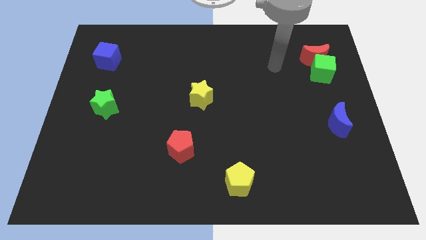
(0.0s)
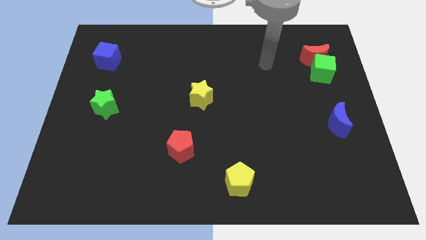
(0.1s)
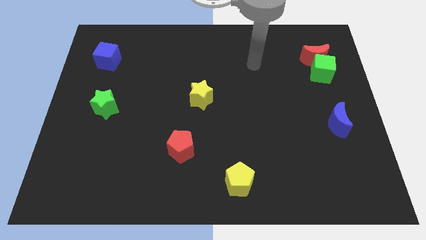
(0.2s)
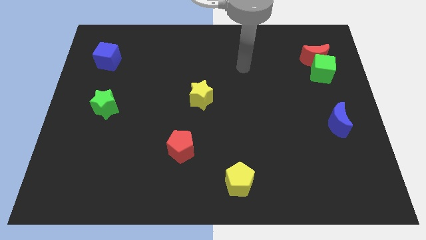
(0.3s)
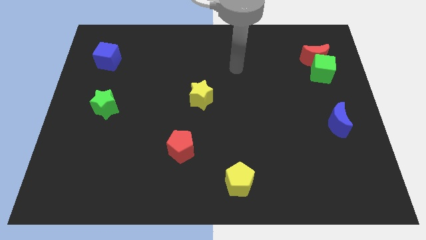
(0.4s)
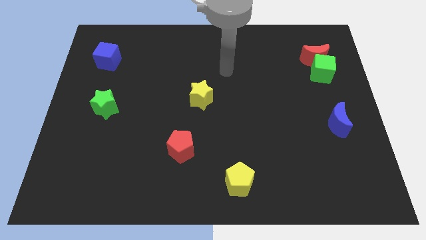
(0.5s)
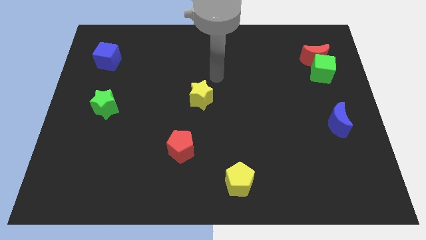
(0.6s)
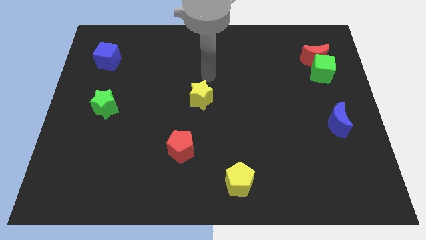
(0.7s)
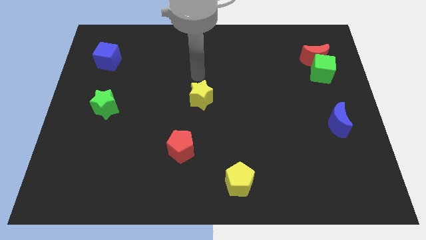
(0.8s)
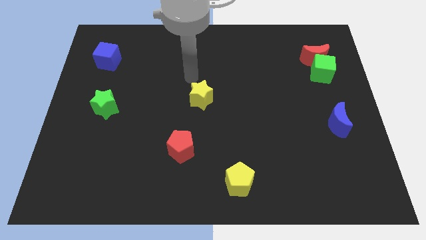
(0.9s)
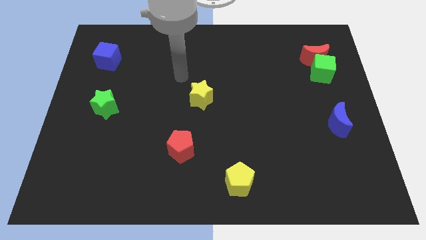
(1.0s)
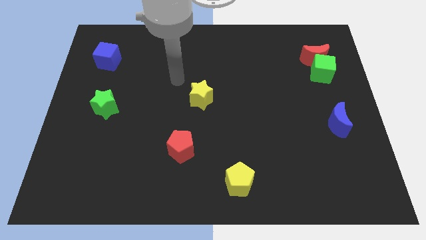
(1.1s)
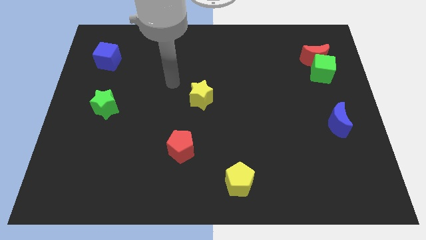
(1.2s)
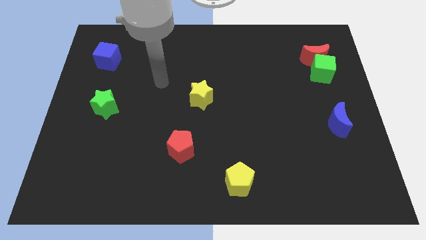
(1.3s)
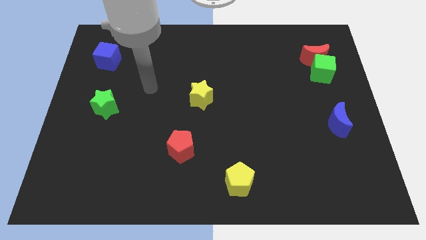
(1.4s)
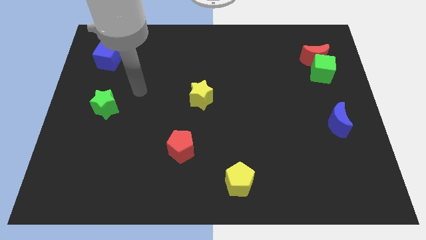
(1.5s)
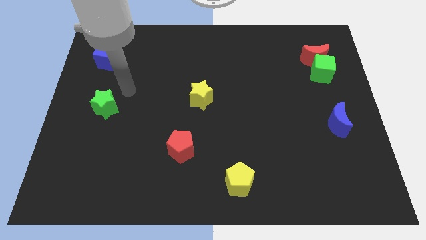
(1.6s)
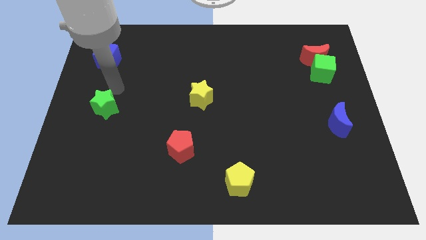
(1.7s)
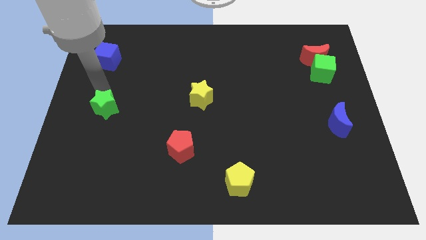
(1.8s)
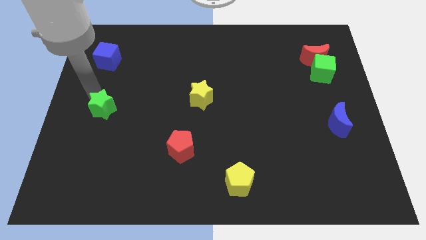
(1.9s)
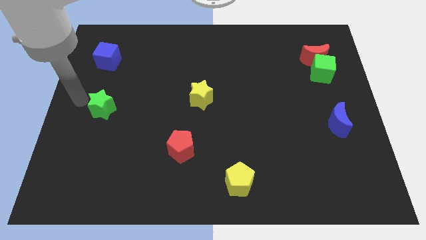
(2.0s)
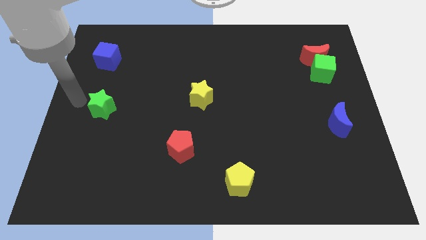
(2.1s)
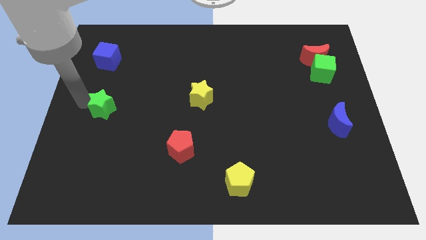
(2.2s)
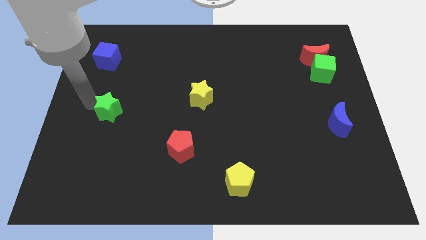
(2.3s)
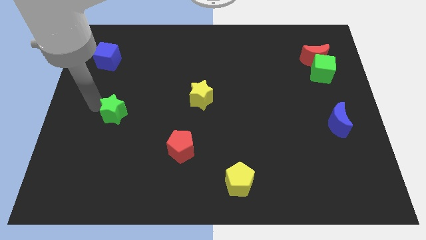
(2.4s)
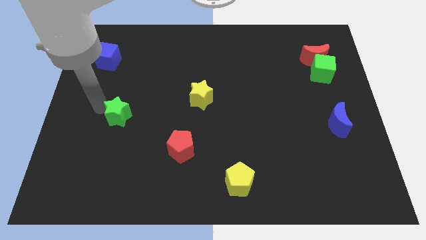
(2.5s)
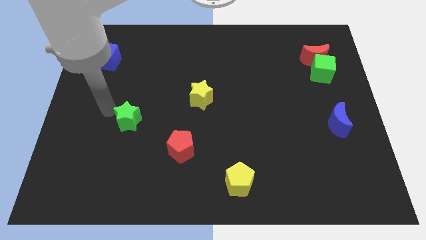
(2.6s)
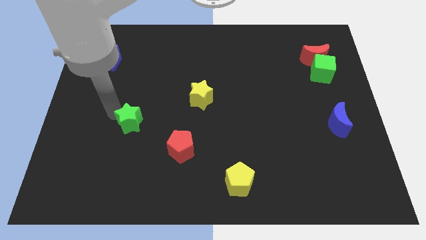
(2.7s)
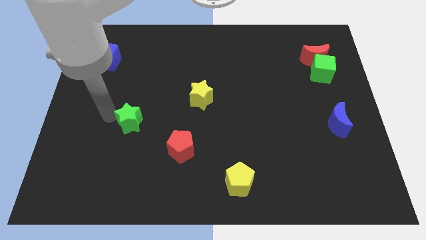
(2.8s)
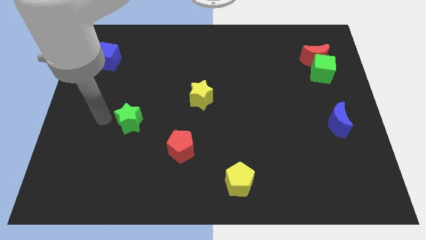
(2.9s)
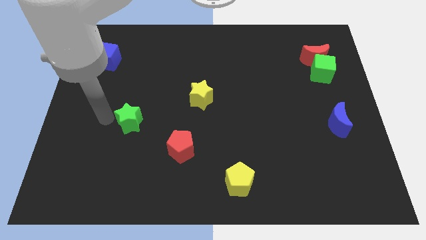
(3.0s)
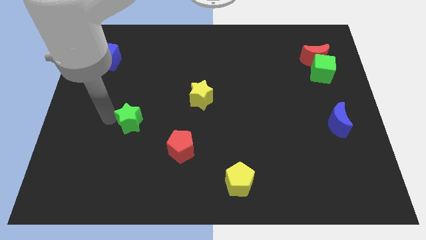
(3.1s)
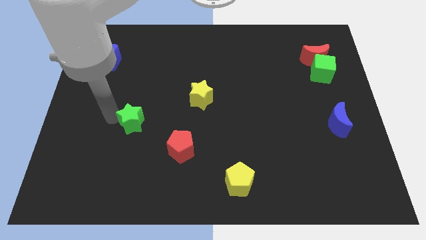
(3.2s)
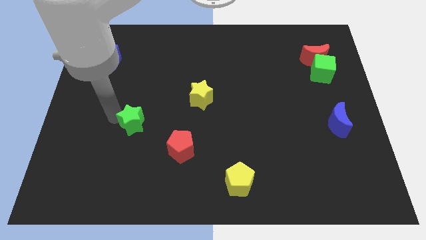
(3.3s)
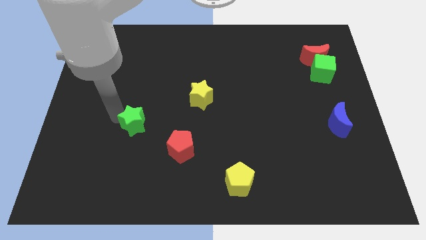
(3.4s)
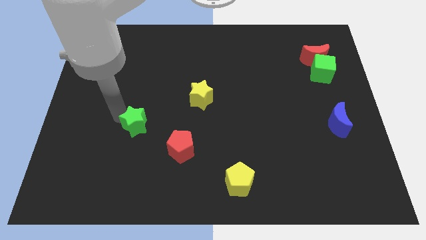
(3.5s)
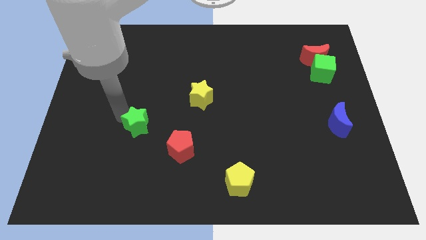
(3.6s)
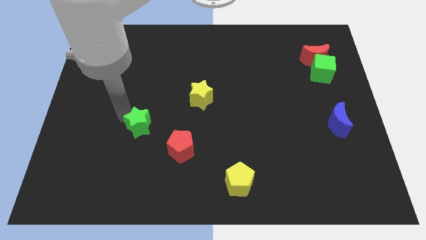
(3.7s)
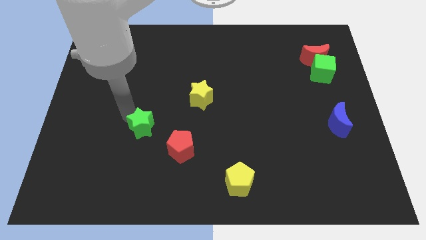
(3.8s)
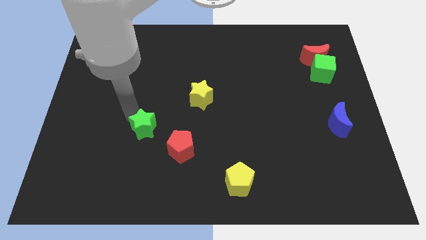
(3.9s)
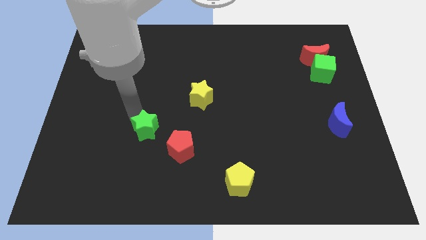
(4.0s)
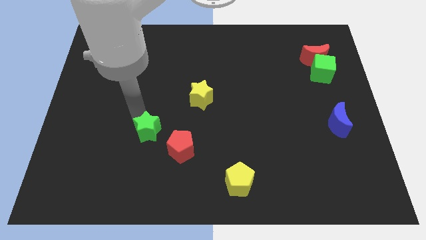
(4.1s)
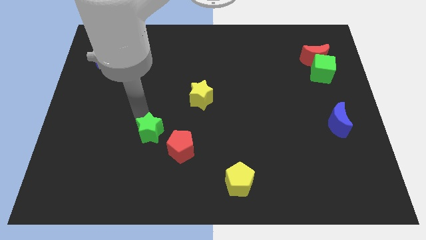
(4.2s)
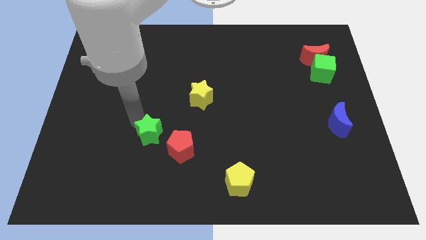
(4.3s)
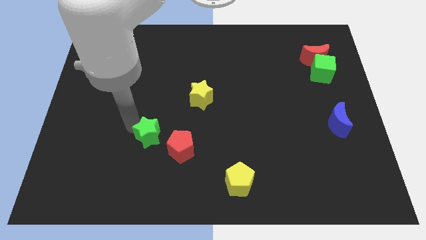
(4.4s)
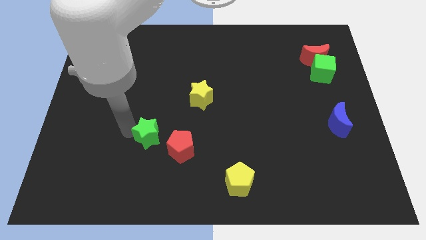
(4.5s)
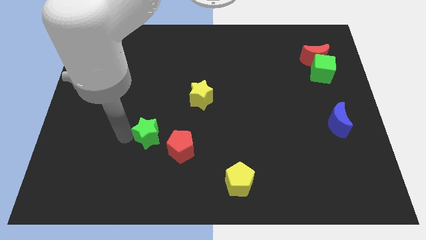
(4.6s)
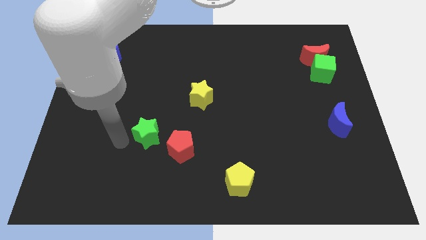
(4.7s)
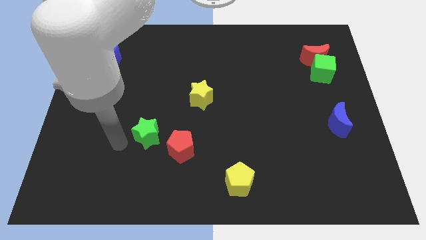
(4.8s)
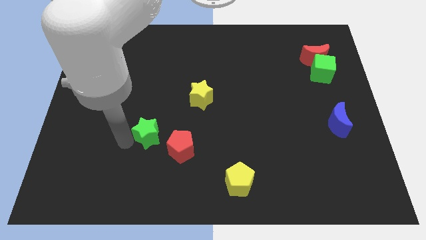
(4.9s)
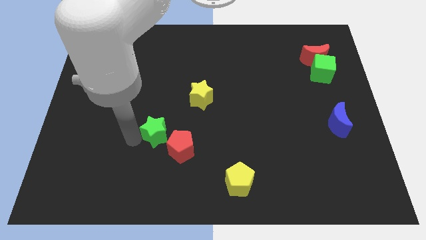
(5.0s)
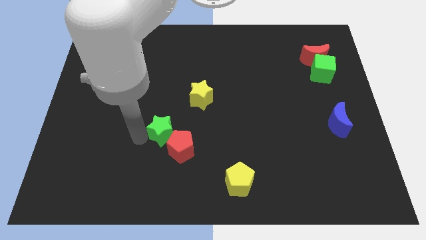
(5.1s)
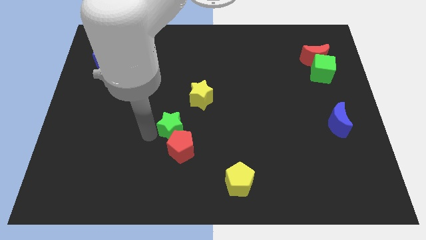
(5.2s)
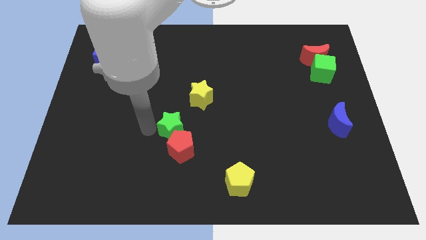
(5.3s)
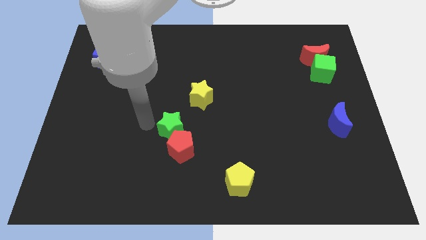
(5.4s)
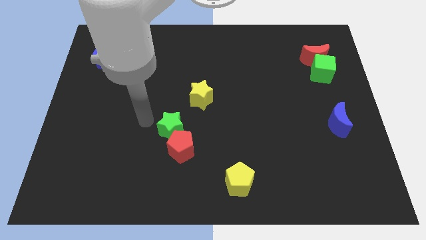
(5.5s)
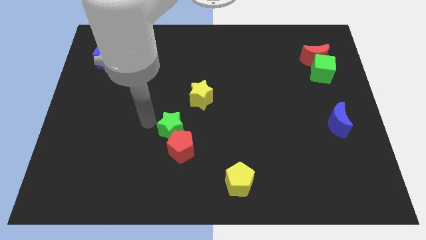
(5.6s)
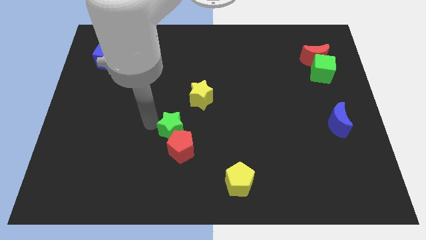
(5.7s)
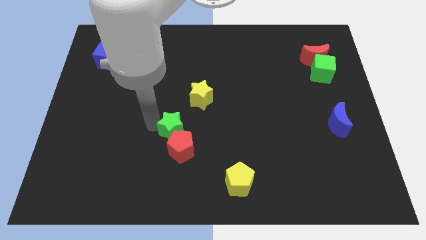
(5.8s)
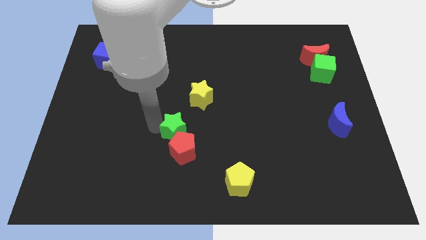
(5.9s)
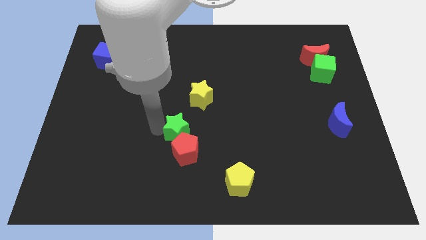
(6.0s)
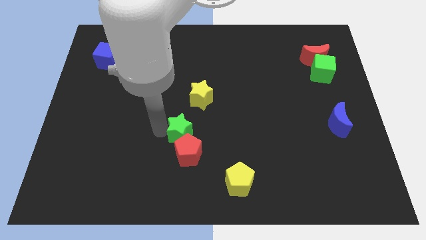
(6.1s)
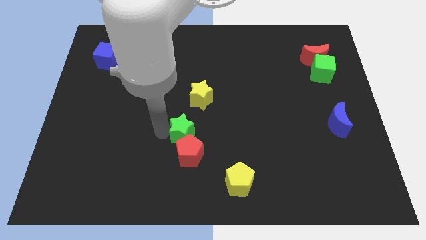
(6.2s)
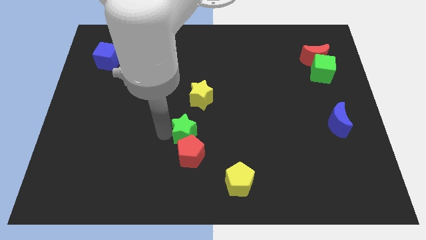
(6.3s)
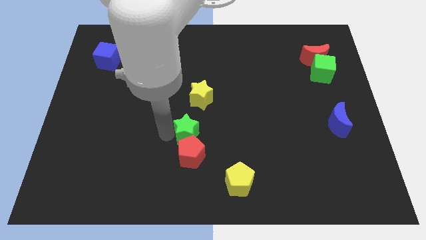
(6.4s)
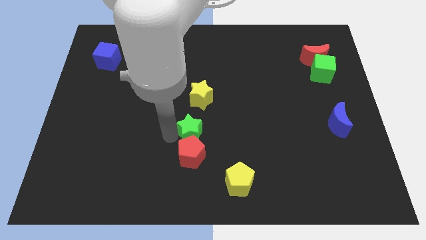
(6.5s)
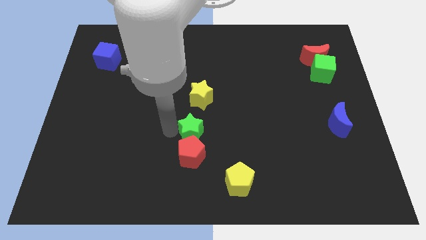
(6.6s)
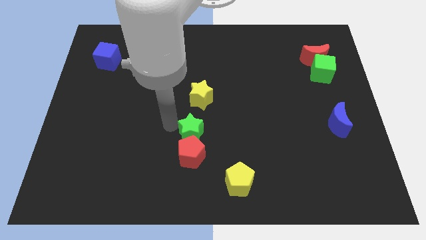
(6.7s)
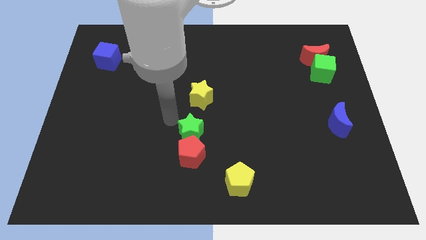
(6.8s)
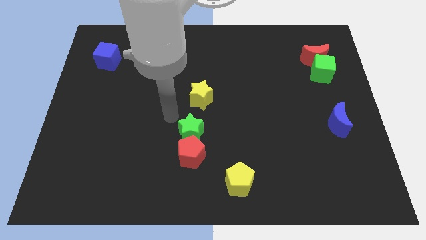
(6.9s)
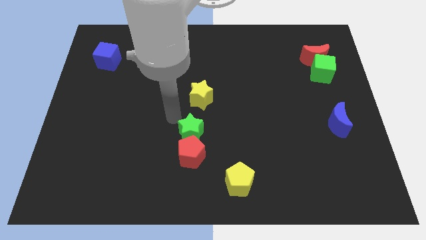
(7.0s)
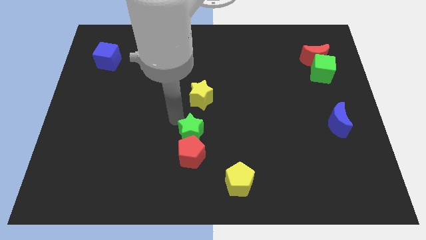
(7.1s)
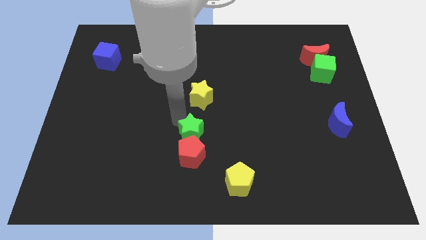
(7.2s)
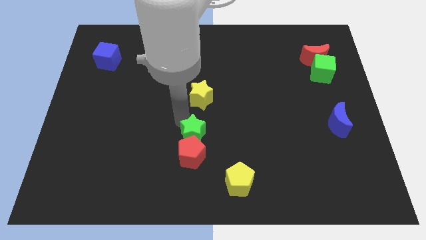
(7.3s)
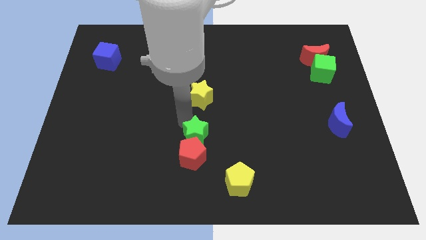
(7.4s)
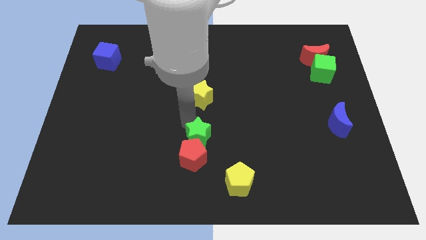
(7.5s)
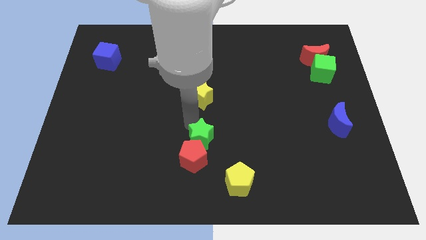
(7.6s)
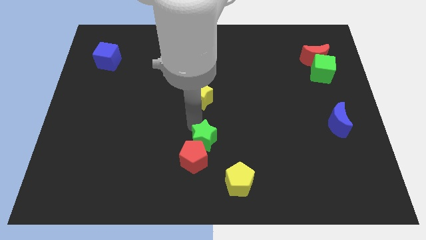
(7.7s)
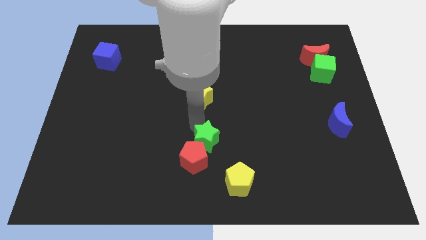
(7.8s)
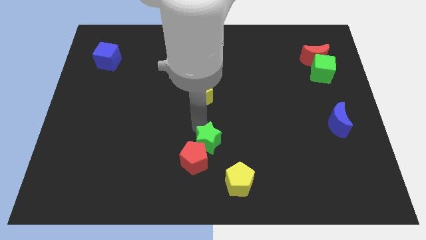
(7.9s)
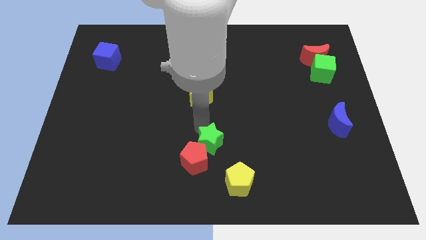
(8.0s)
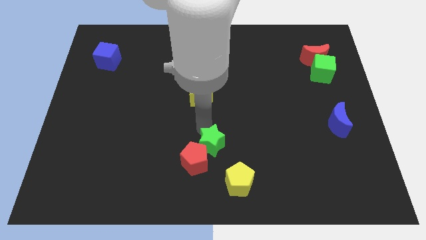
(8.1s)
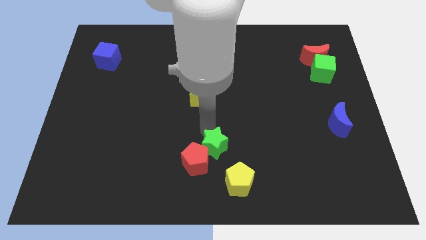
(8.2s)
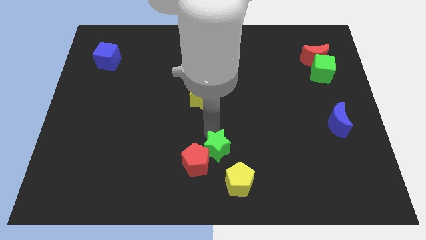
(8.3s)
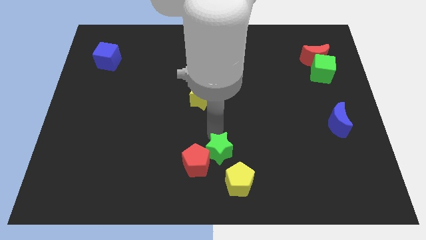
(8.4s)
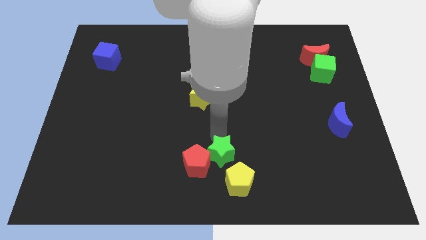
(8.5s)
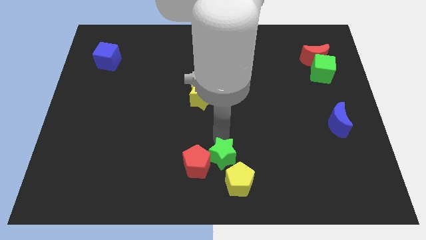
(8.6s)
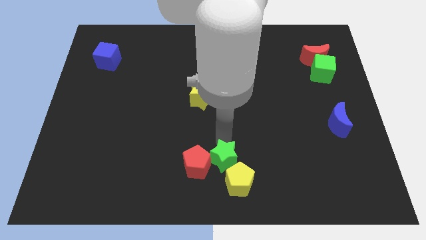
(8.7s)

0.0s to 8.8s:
push the green star next to the yellow pentagon
